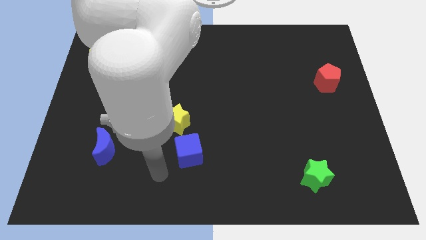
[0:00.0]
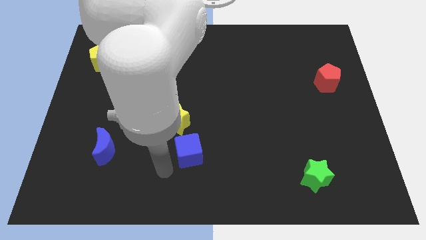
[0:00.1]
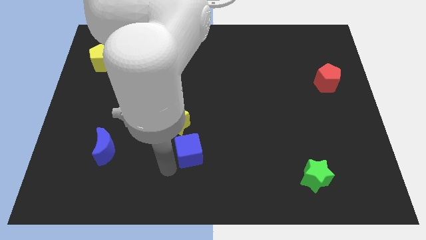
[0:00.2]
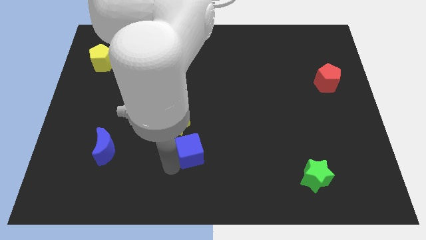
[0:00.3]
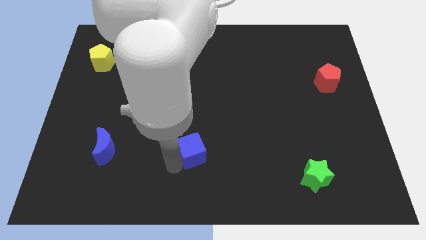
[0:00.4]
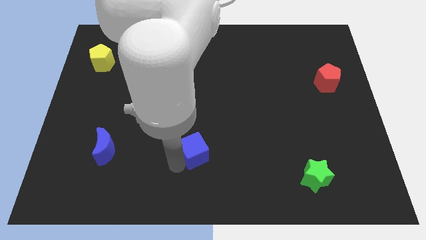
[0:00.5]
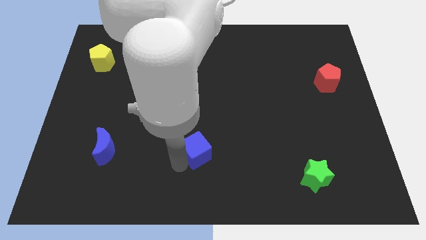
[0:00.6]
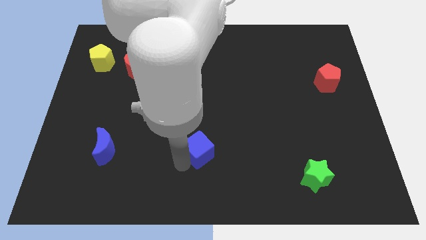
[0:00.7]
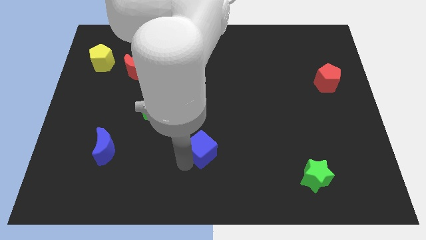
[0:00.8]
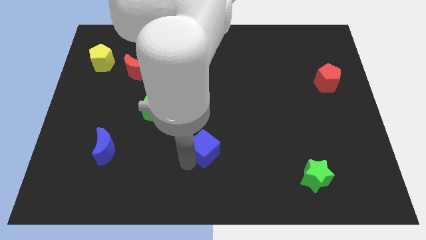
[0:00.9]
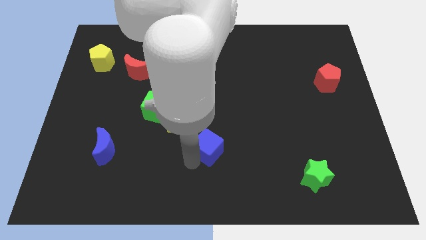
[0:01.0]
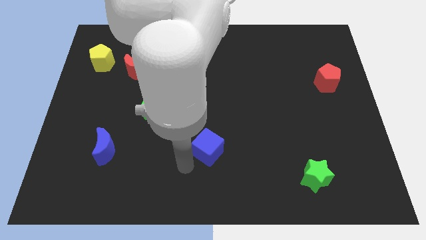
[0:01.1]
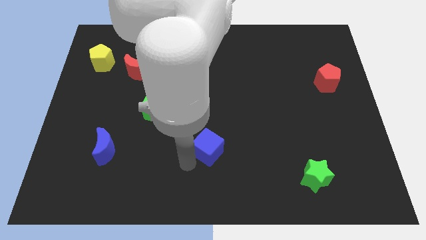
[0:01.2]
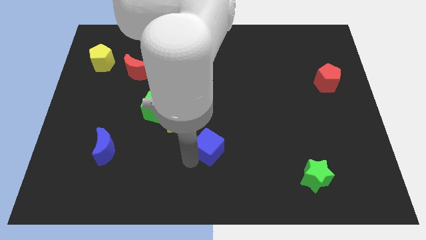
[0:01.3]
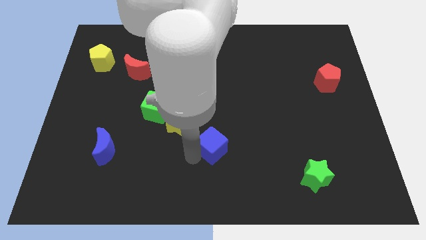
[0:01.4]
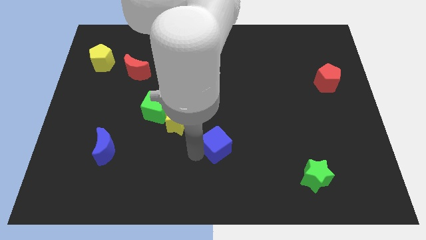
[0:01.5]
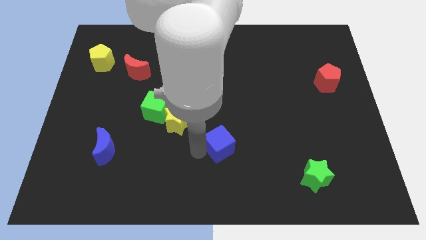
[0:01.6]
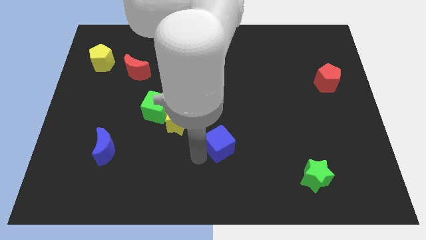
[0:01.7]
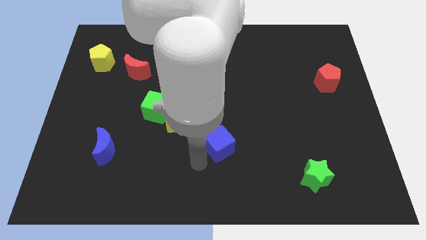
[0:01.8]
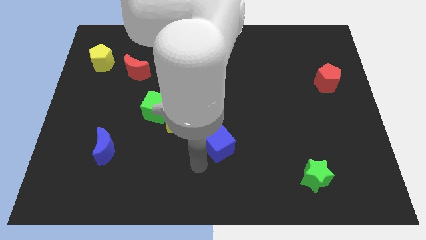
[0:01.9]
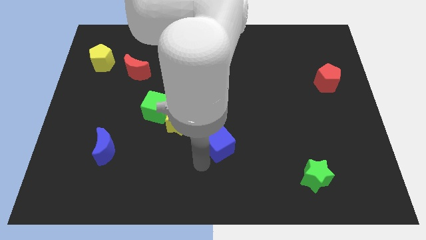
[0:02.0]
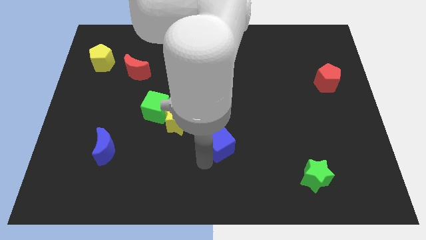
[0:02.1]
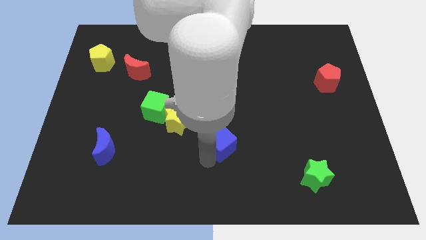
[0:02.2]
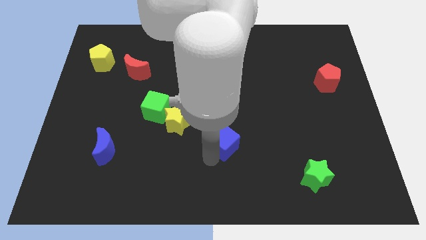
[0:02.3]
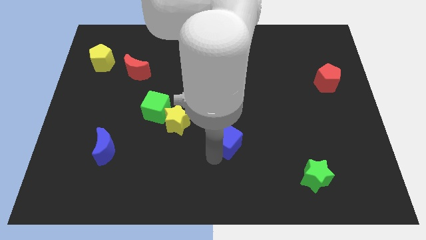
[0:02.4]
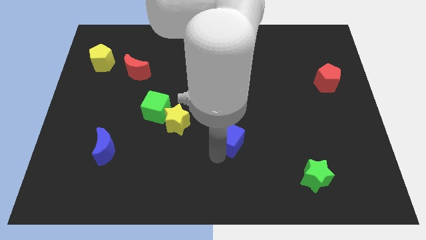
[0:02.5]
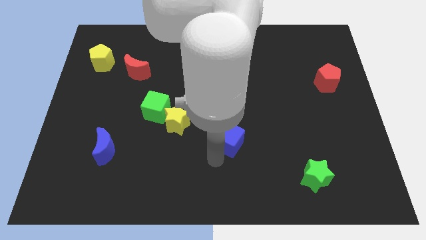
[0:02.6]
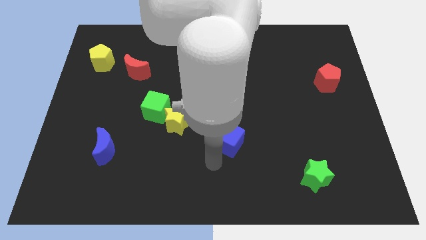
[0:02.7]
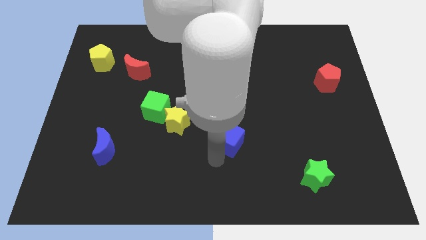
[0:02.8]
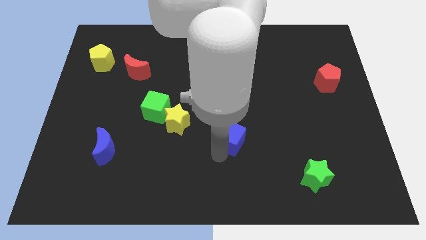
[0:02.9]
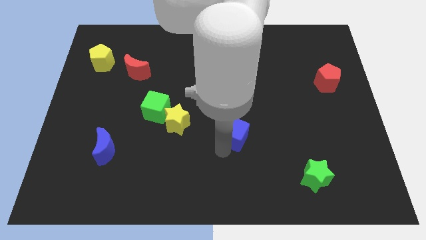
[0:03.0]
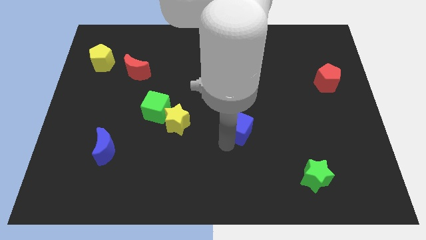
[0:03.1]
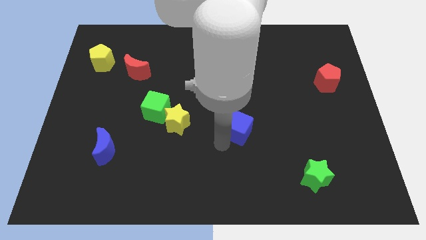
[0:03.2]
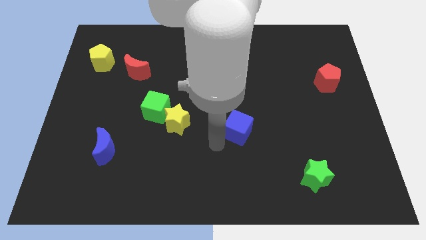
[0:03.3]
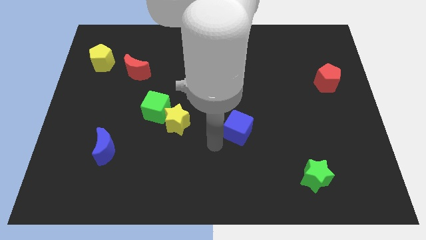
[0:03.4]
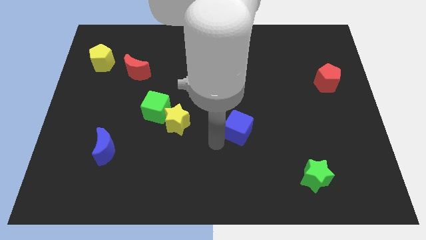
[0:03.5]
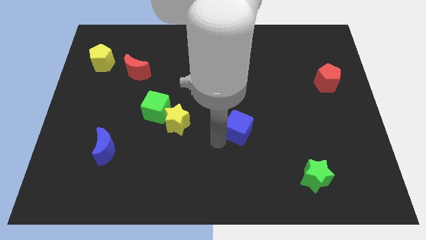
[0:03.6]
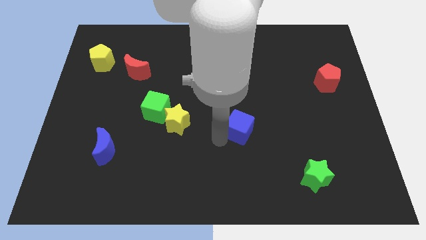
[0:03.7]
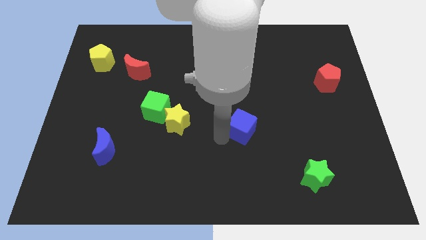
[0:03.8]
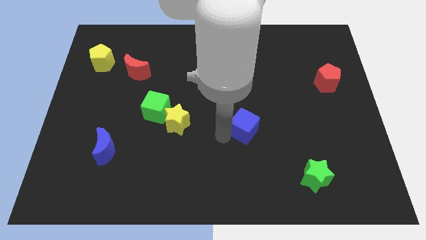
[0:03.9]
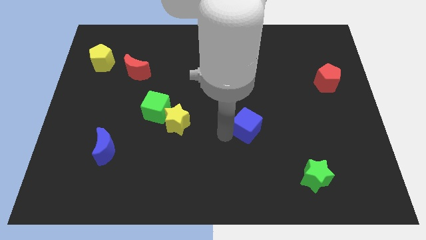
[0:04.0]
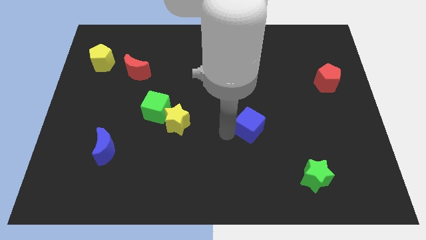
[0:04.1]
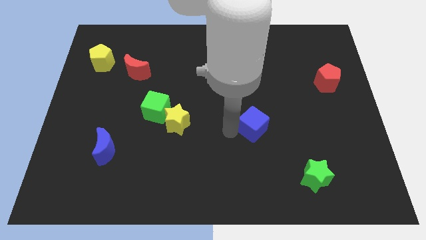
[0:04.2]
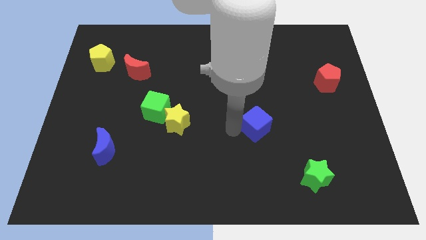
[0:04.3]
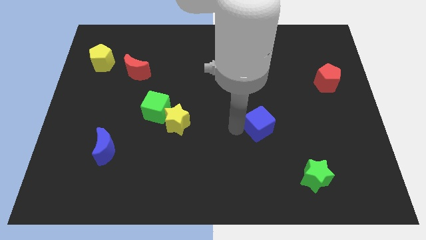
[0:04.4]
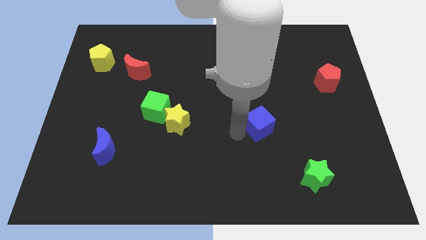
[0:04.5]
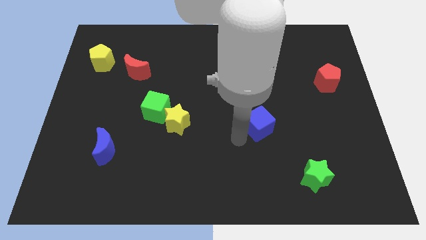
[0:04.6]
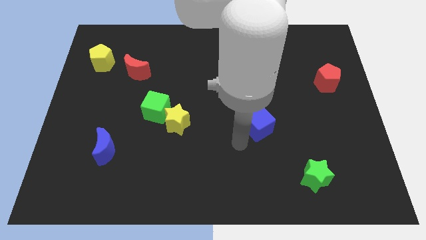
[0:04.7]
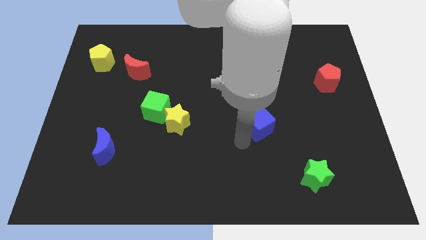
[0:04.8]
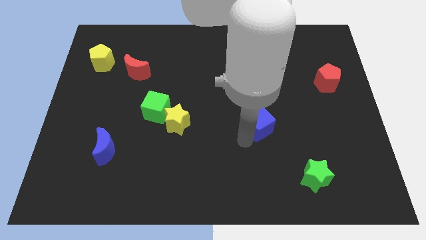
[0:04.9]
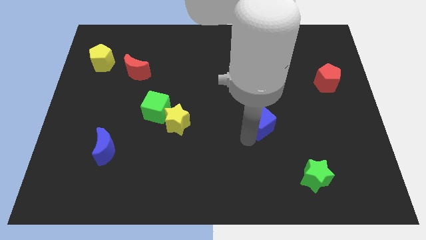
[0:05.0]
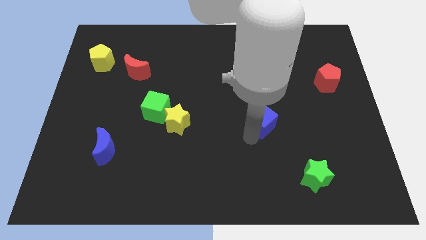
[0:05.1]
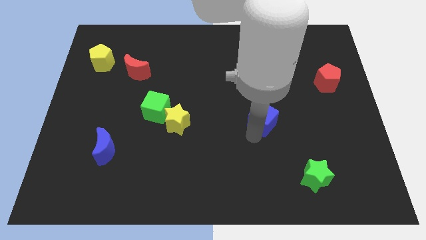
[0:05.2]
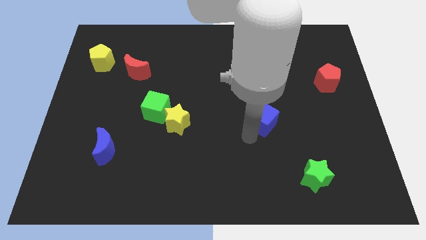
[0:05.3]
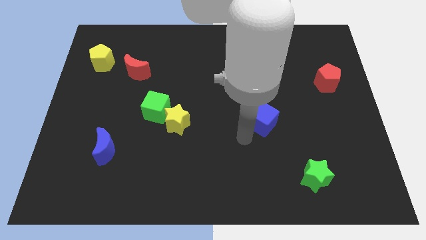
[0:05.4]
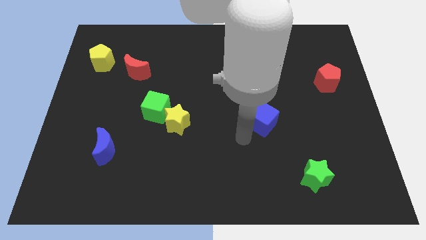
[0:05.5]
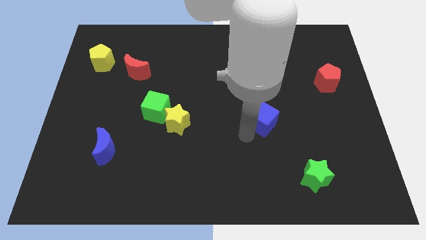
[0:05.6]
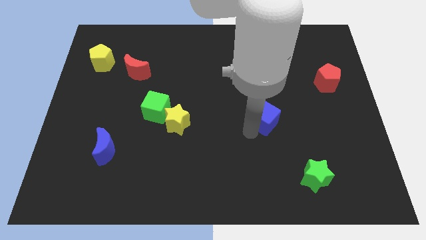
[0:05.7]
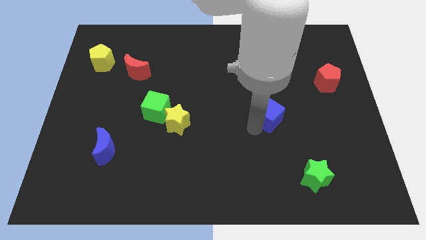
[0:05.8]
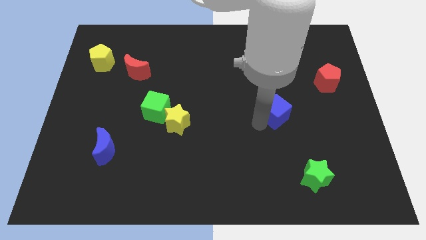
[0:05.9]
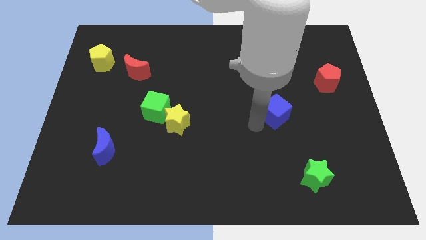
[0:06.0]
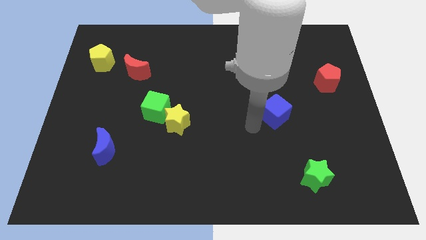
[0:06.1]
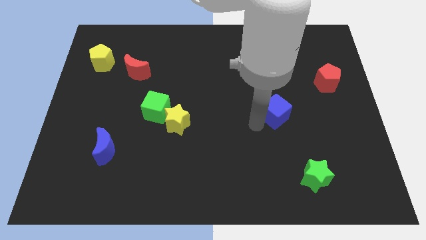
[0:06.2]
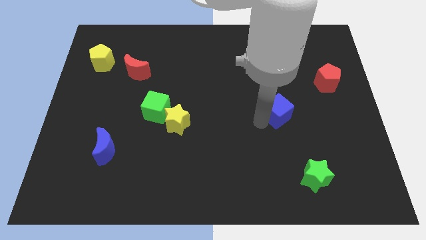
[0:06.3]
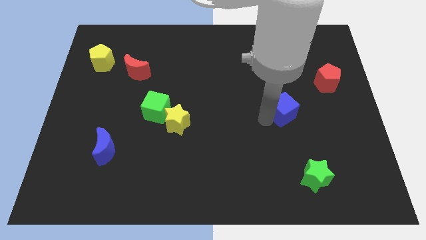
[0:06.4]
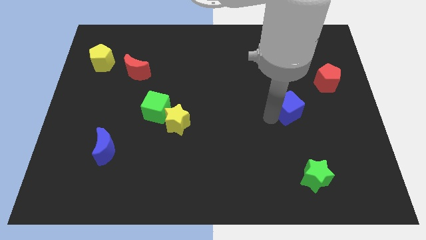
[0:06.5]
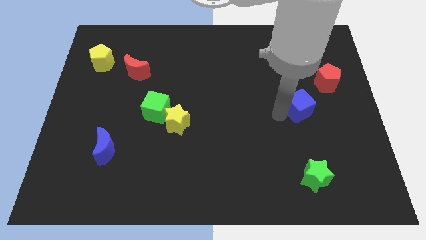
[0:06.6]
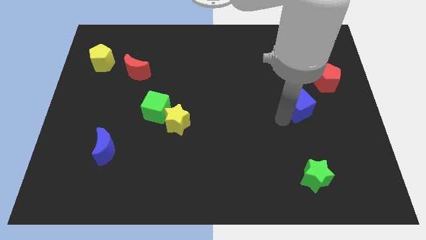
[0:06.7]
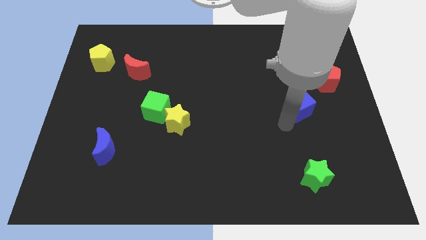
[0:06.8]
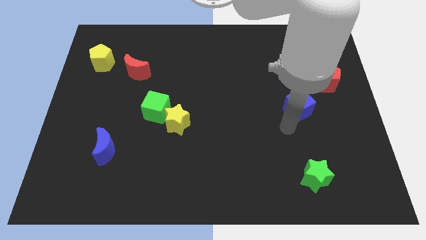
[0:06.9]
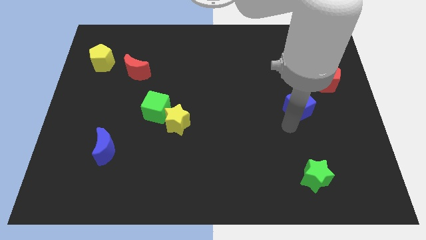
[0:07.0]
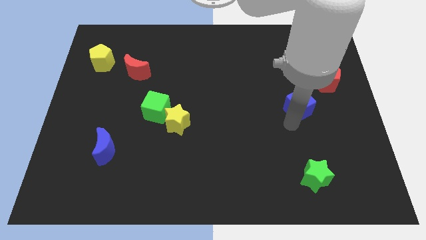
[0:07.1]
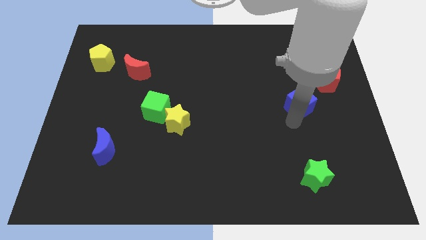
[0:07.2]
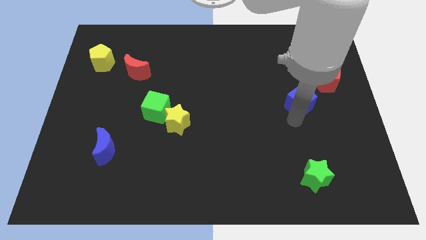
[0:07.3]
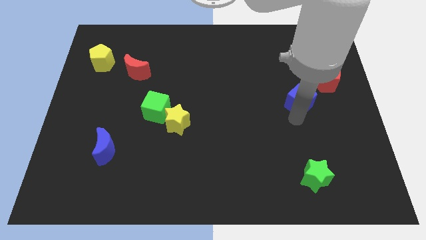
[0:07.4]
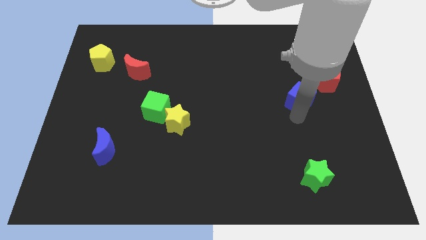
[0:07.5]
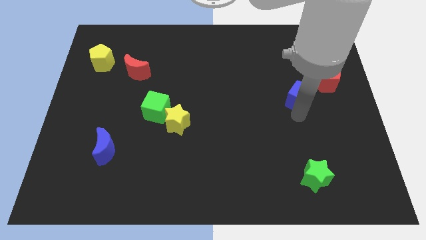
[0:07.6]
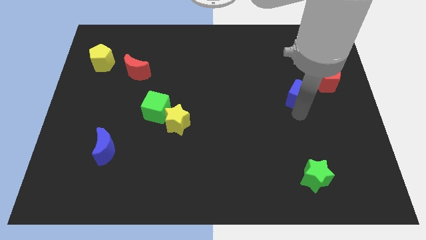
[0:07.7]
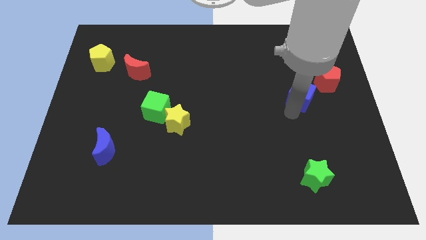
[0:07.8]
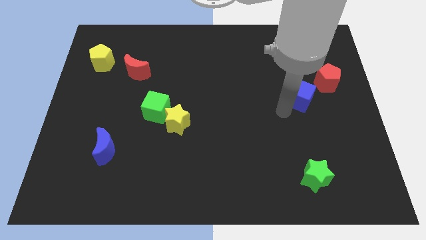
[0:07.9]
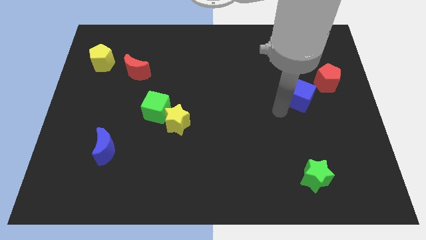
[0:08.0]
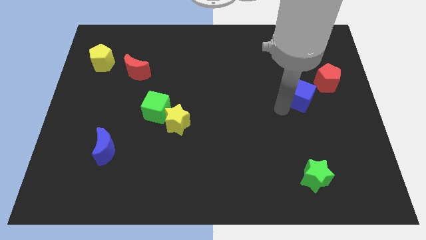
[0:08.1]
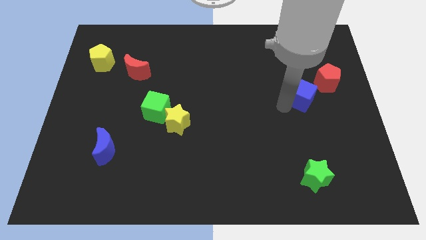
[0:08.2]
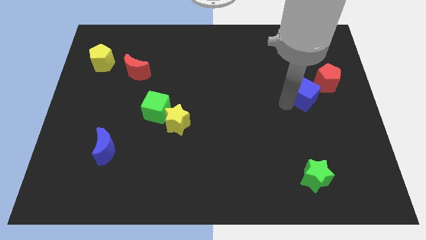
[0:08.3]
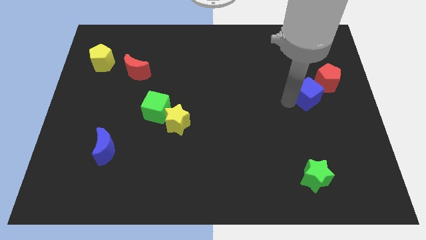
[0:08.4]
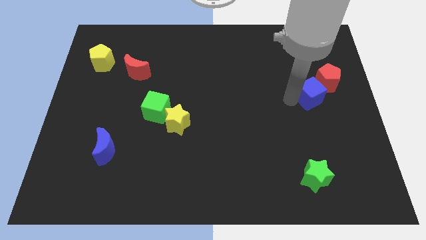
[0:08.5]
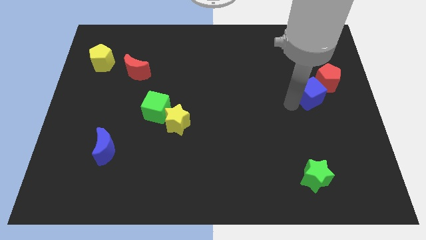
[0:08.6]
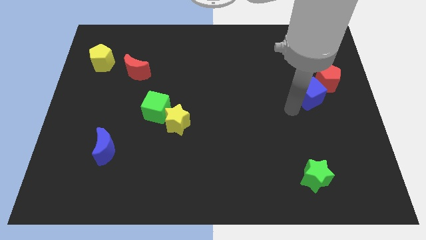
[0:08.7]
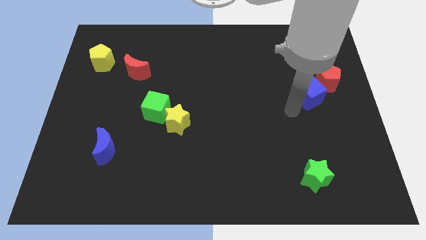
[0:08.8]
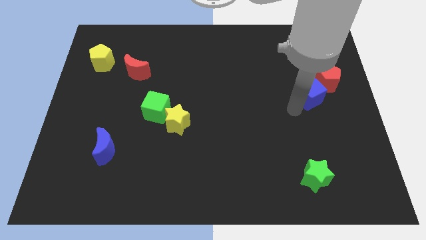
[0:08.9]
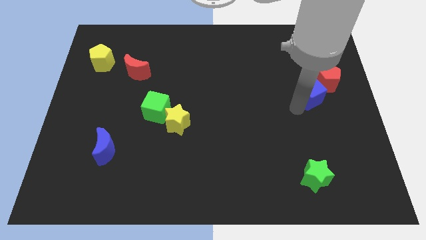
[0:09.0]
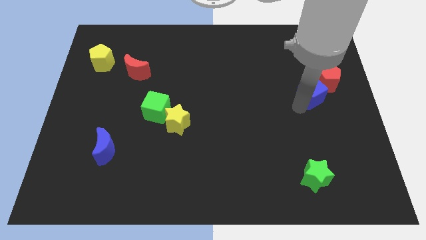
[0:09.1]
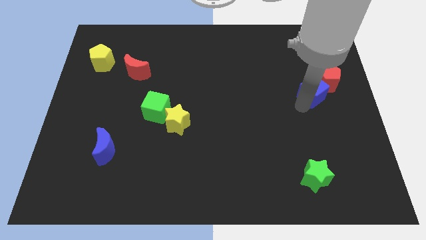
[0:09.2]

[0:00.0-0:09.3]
put the blue cube close to the red pentagon
